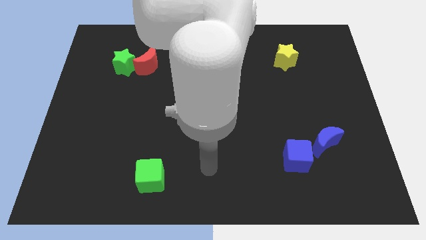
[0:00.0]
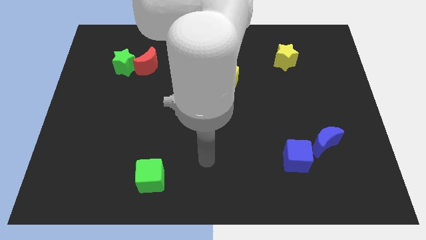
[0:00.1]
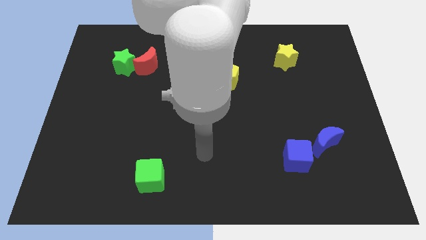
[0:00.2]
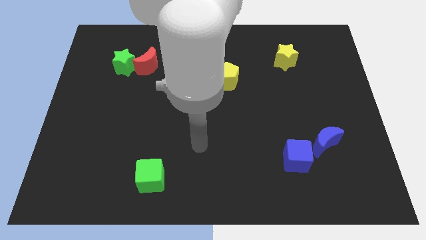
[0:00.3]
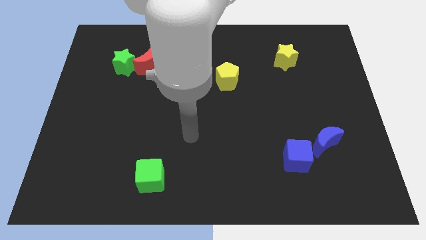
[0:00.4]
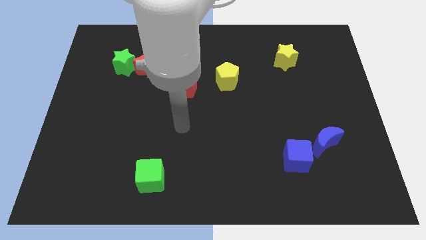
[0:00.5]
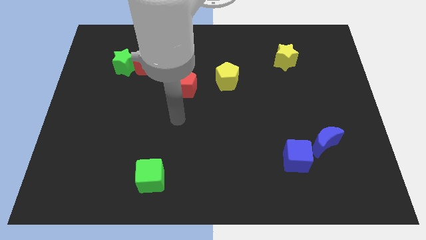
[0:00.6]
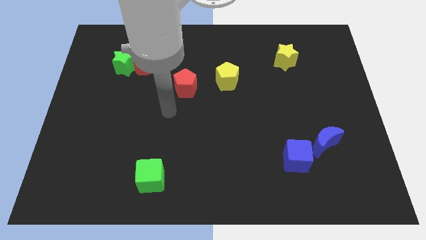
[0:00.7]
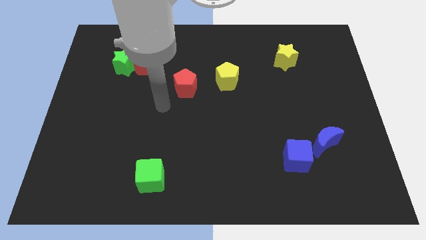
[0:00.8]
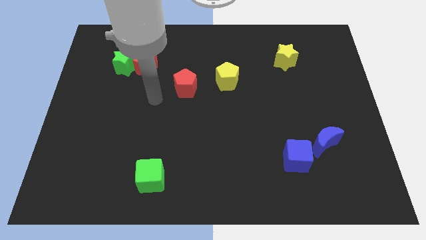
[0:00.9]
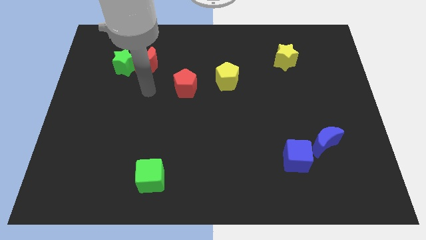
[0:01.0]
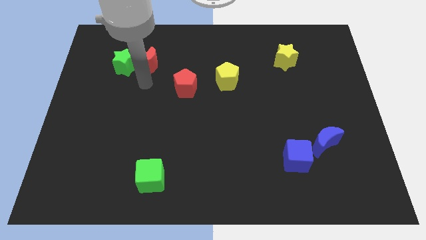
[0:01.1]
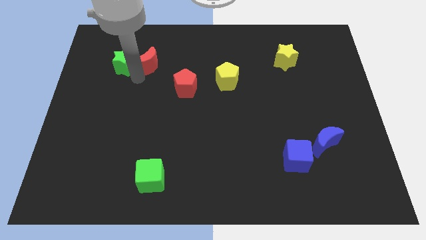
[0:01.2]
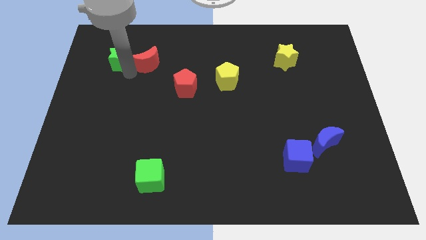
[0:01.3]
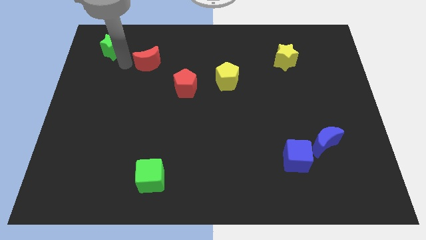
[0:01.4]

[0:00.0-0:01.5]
pull the red moon apart from the green star

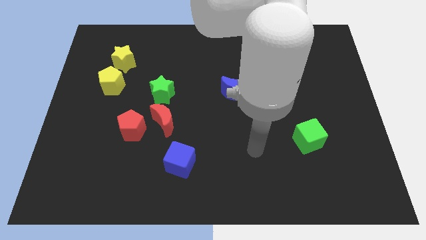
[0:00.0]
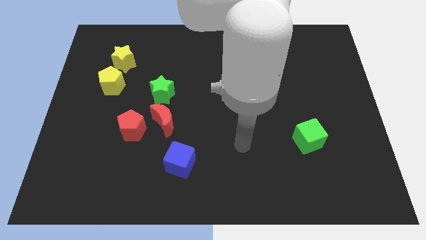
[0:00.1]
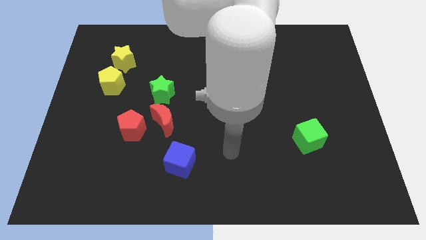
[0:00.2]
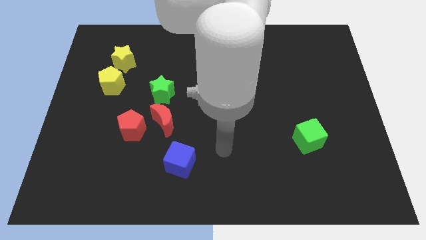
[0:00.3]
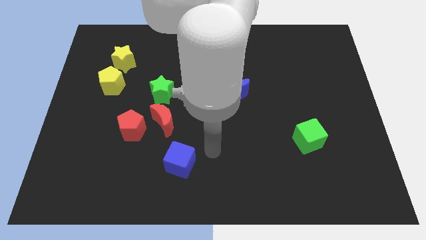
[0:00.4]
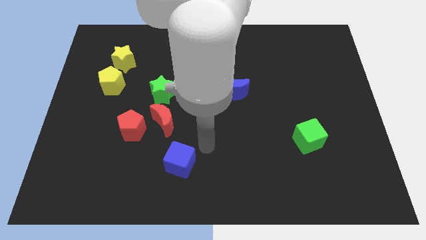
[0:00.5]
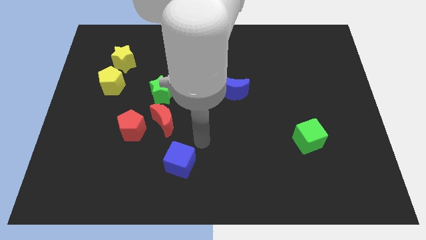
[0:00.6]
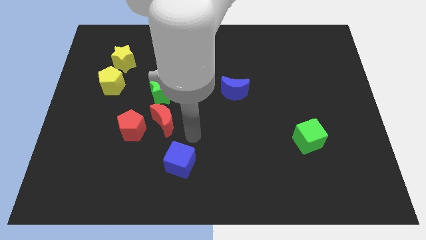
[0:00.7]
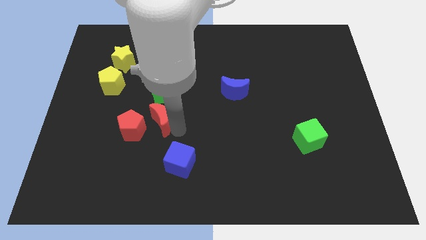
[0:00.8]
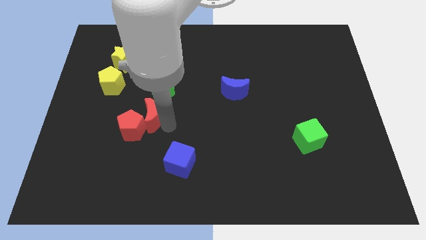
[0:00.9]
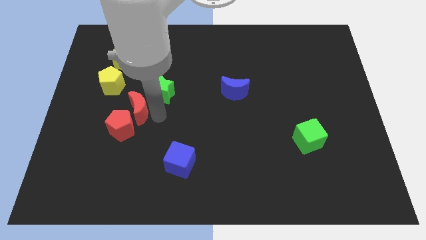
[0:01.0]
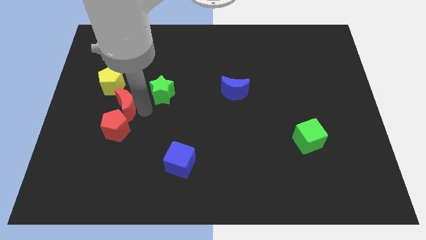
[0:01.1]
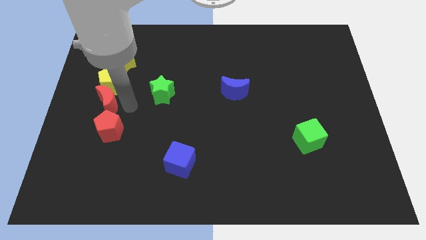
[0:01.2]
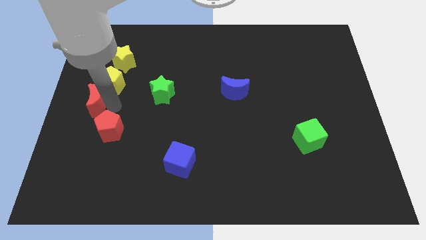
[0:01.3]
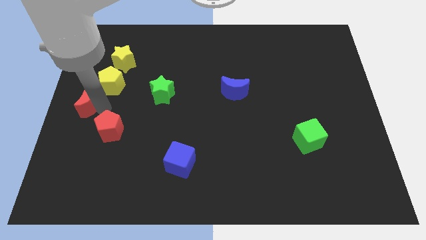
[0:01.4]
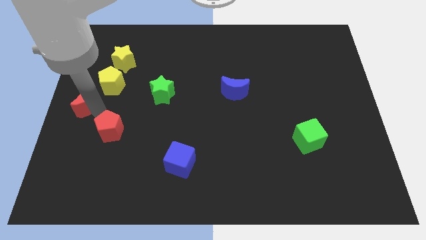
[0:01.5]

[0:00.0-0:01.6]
separate the red pentagon from the red moon

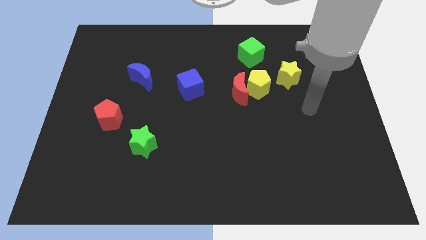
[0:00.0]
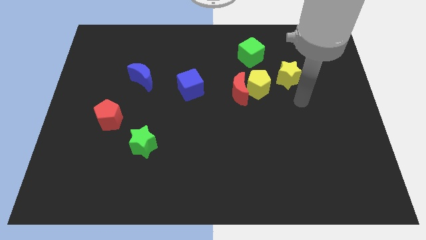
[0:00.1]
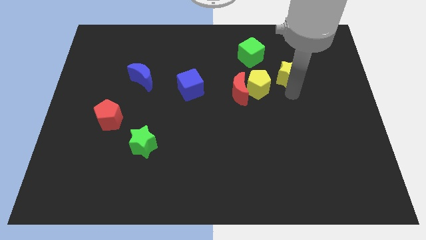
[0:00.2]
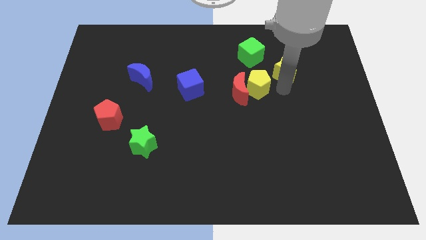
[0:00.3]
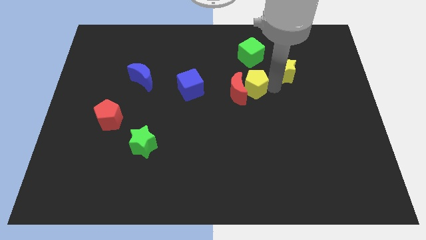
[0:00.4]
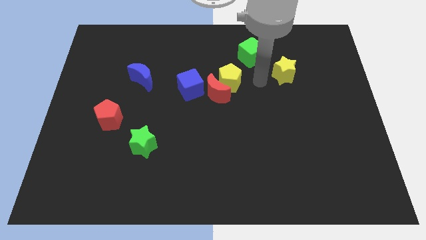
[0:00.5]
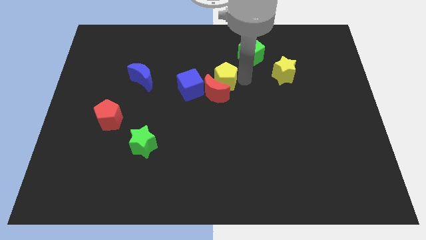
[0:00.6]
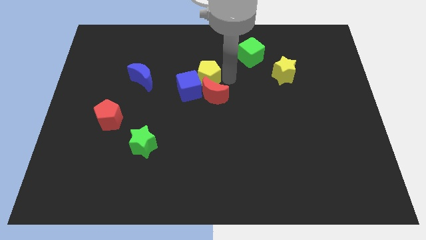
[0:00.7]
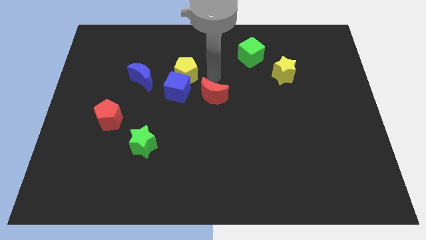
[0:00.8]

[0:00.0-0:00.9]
move the red moon away from the yellow pentagon

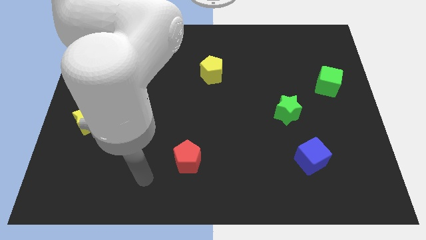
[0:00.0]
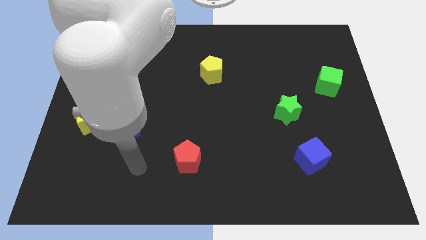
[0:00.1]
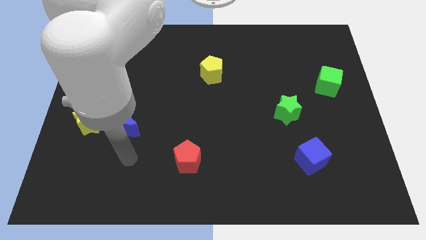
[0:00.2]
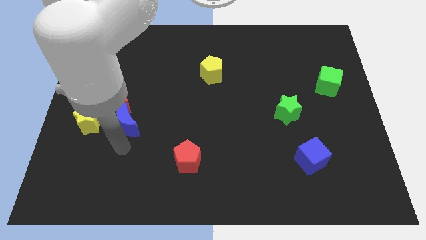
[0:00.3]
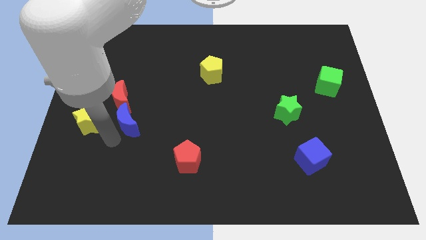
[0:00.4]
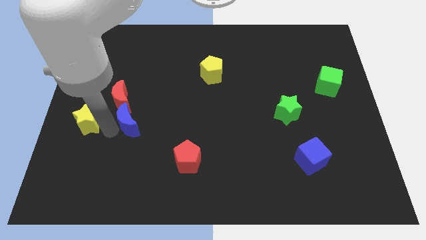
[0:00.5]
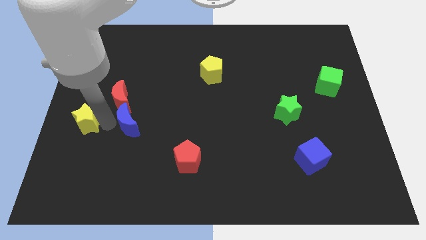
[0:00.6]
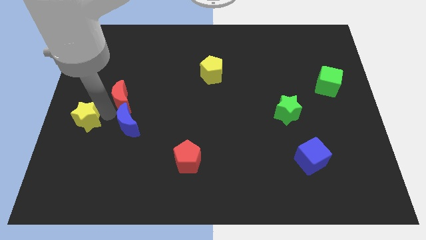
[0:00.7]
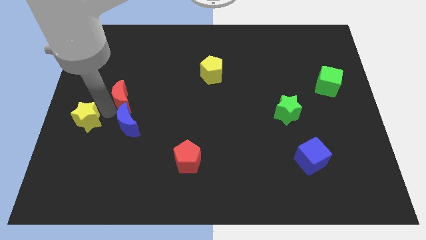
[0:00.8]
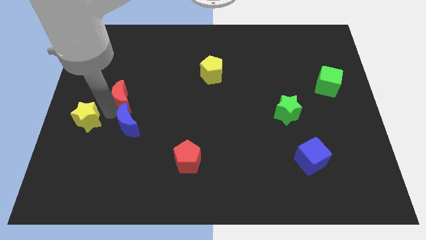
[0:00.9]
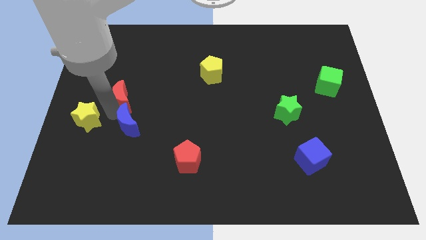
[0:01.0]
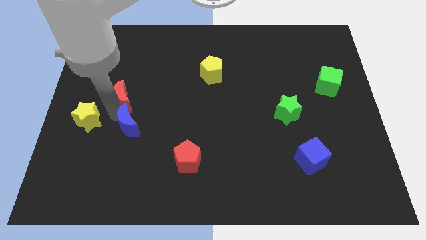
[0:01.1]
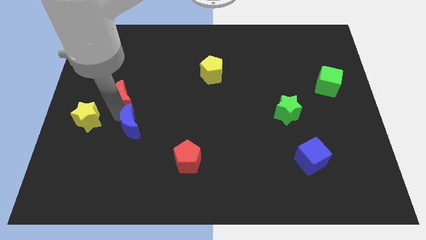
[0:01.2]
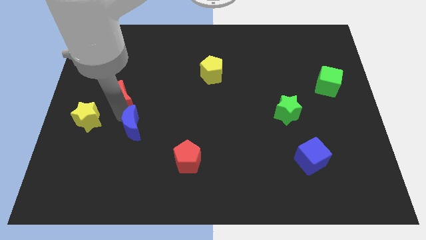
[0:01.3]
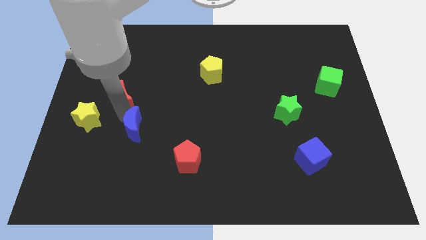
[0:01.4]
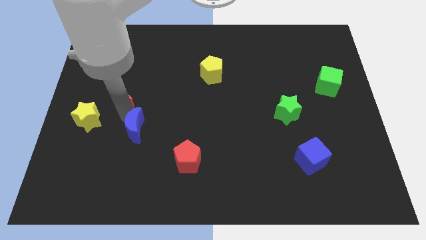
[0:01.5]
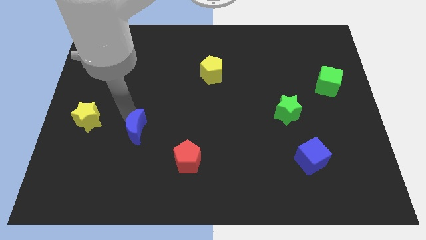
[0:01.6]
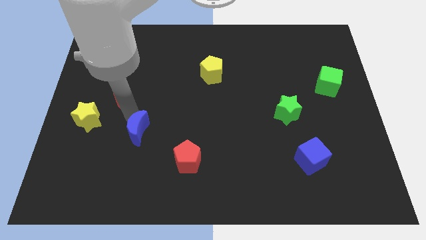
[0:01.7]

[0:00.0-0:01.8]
pull the blue moon apart from the red moon and yellow star

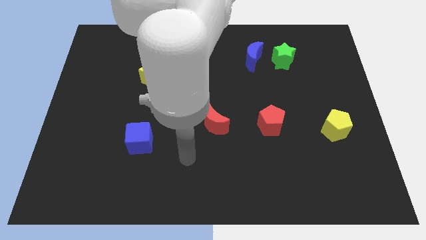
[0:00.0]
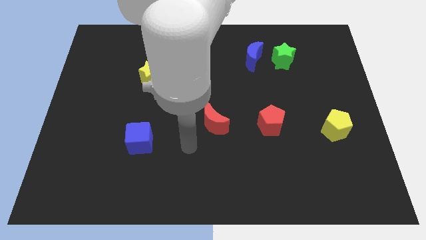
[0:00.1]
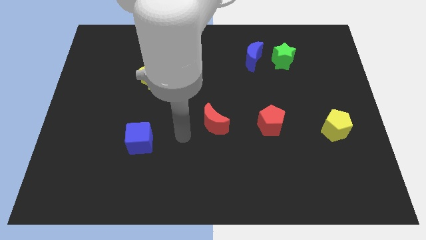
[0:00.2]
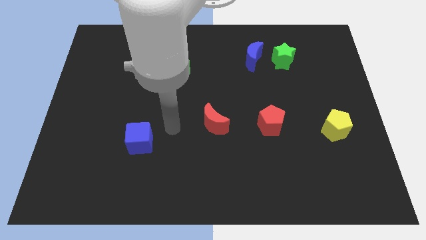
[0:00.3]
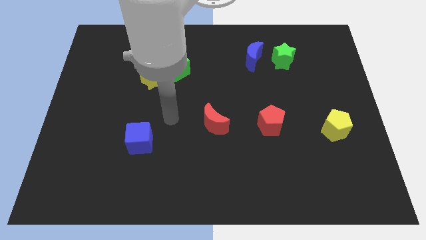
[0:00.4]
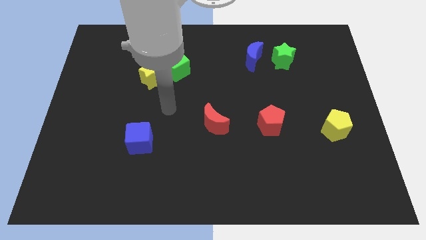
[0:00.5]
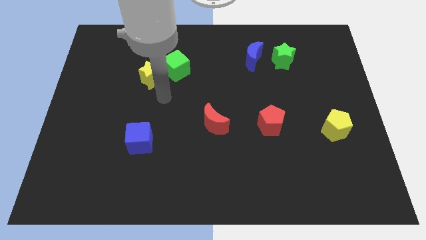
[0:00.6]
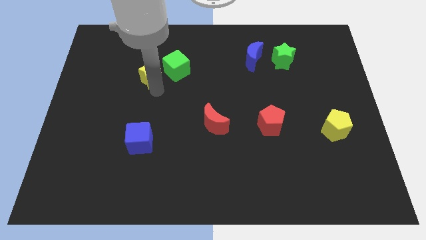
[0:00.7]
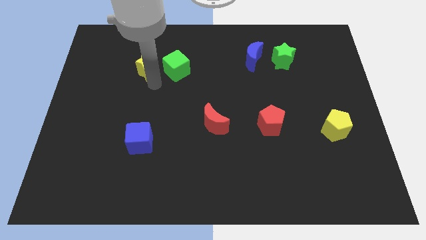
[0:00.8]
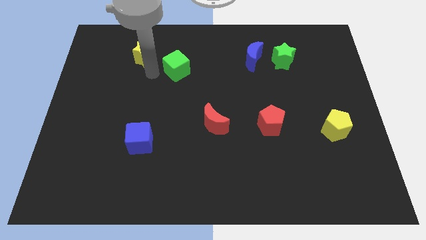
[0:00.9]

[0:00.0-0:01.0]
move the green cube away from the yellow star

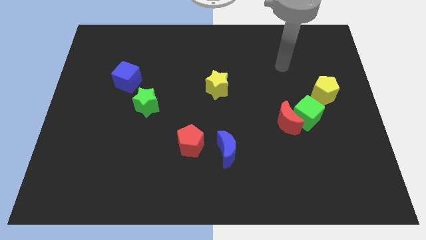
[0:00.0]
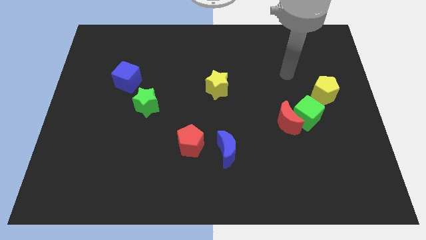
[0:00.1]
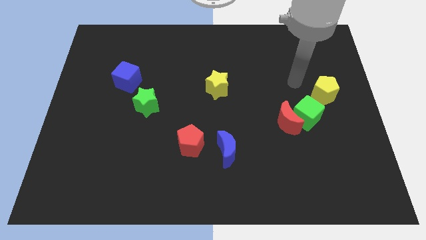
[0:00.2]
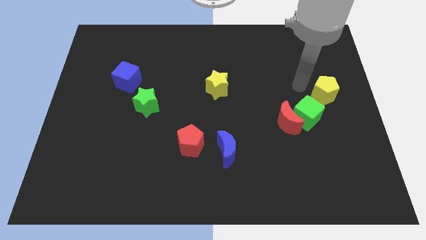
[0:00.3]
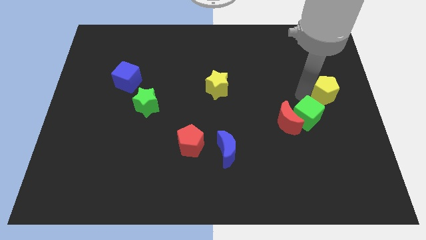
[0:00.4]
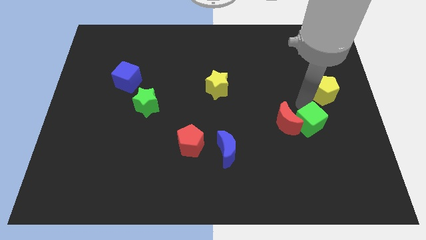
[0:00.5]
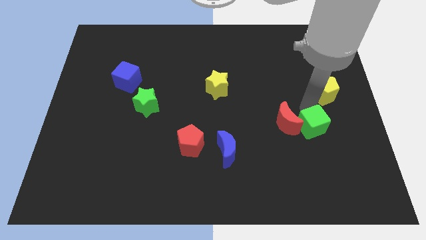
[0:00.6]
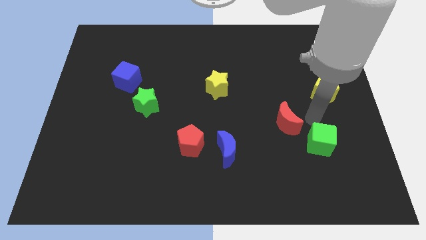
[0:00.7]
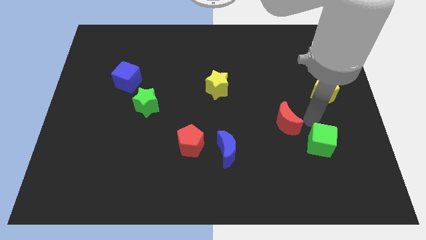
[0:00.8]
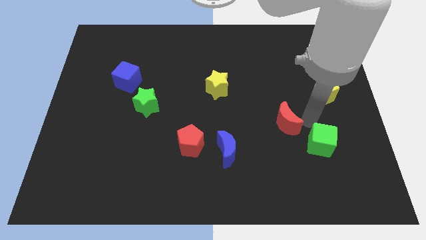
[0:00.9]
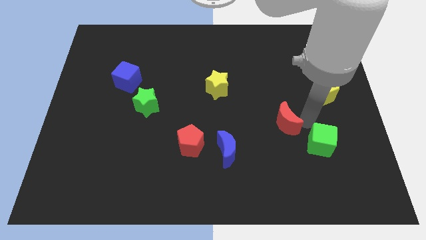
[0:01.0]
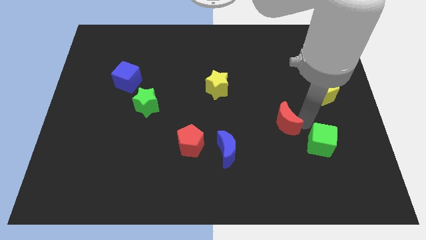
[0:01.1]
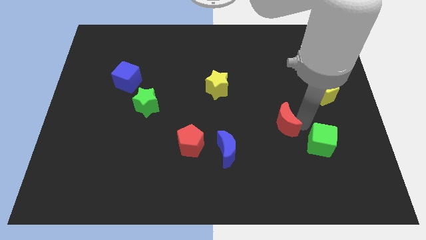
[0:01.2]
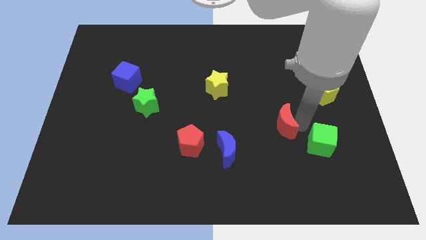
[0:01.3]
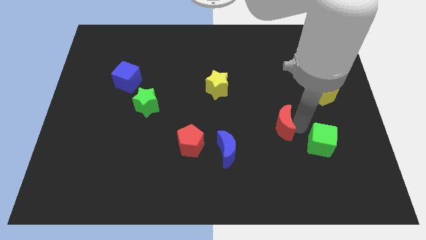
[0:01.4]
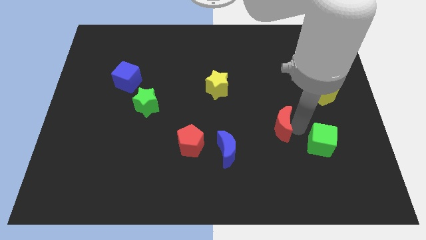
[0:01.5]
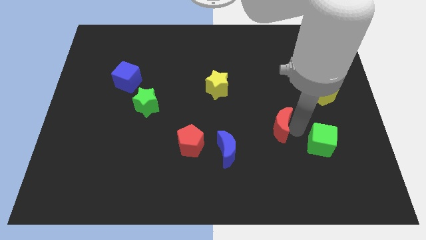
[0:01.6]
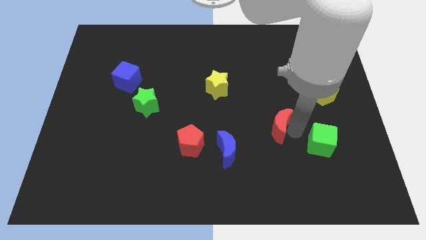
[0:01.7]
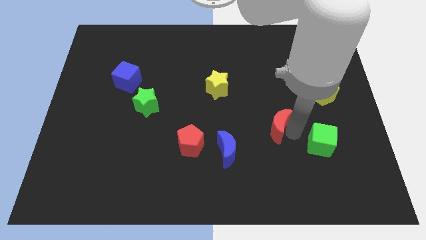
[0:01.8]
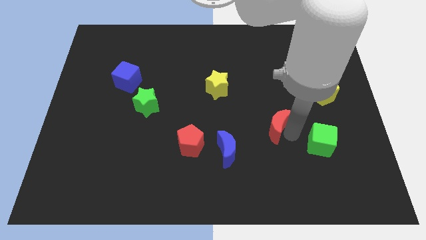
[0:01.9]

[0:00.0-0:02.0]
separate the red moon from the green cube

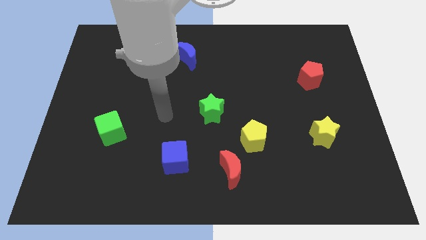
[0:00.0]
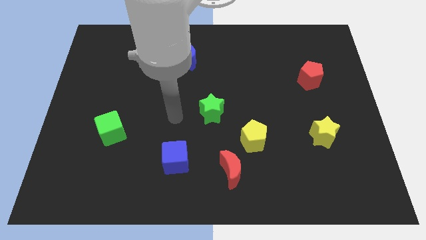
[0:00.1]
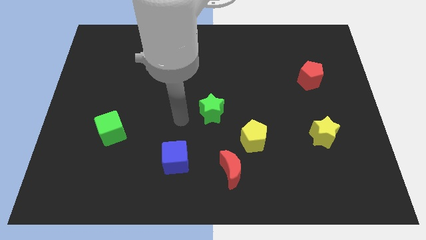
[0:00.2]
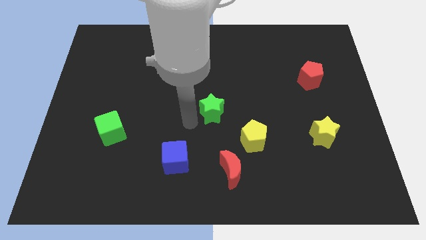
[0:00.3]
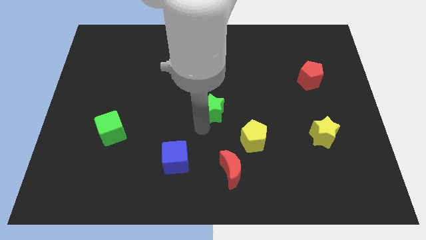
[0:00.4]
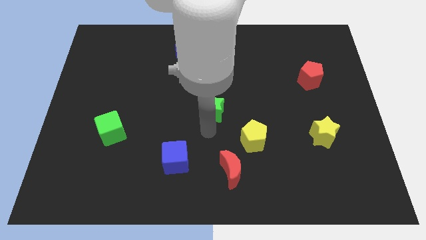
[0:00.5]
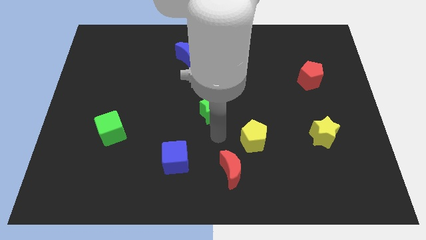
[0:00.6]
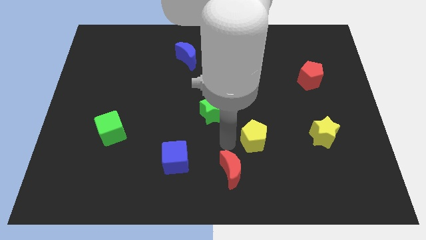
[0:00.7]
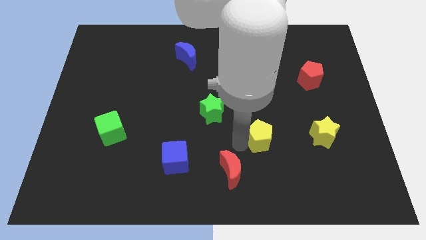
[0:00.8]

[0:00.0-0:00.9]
separate the red moon from the yellow pentagon
